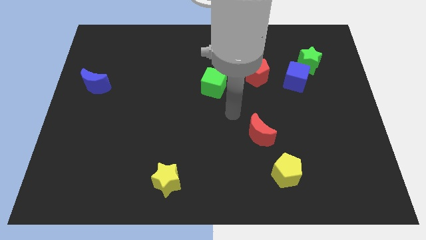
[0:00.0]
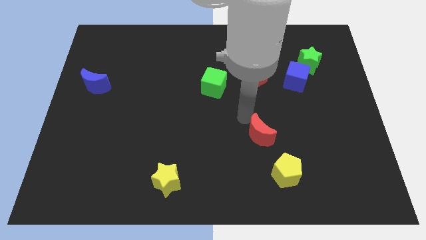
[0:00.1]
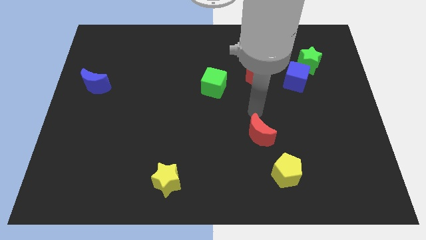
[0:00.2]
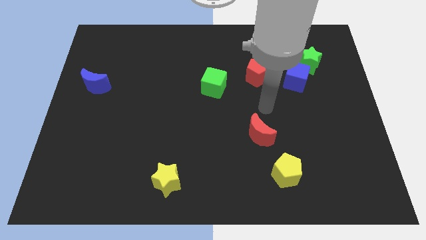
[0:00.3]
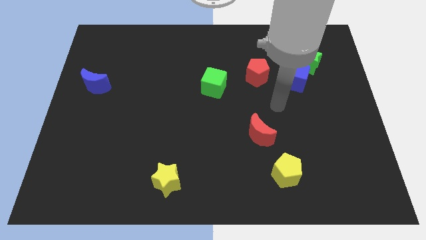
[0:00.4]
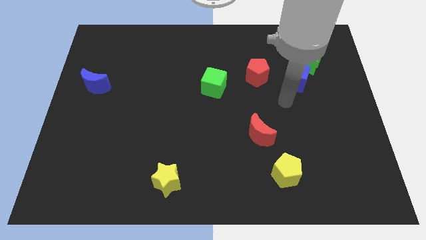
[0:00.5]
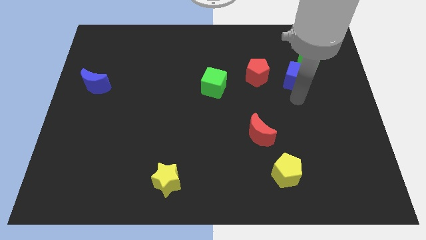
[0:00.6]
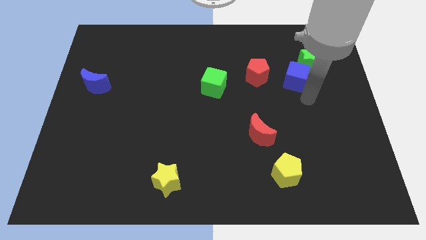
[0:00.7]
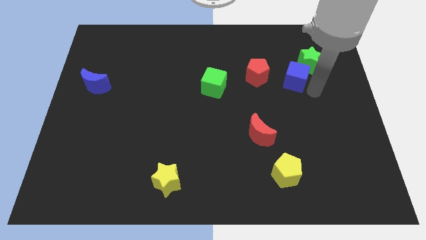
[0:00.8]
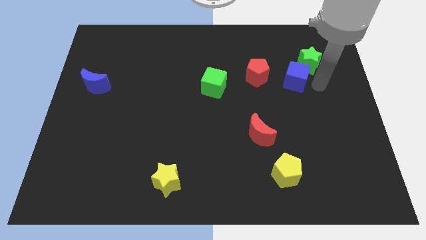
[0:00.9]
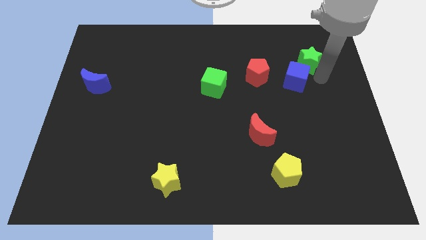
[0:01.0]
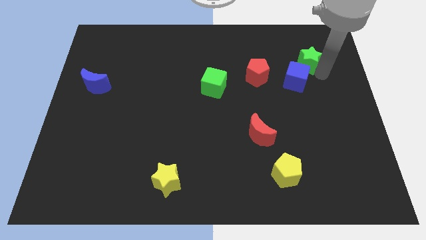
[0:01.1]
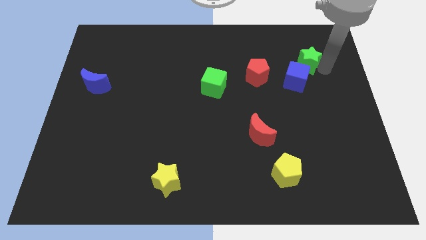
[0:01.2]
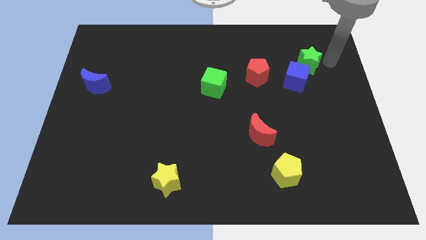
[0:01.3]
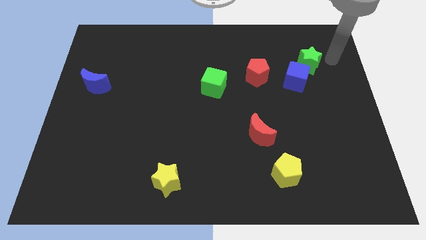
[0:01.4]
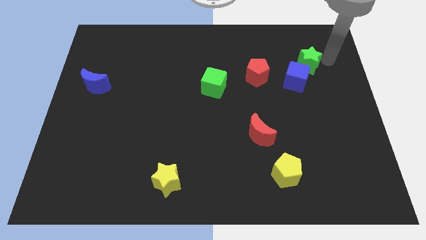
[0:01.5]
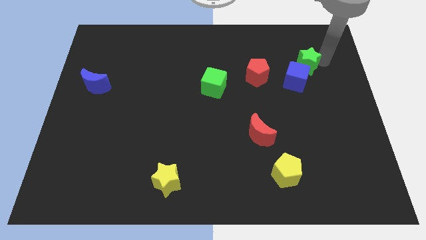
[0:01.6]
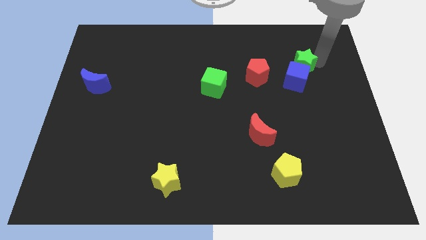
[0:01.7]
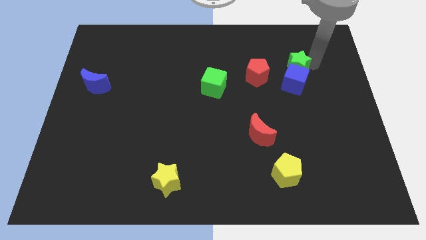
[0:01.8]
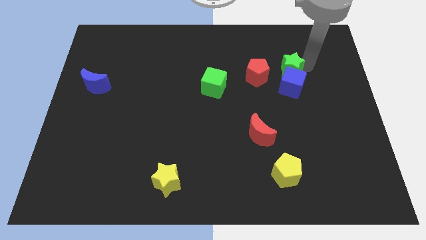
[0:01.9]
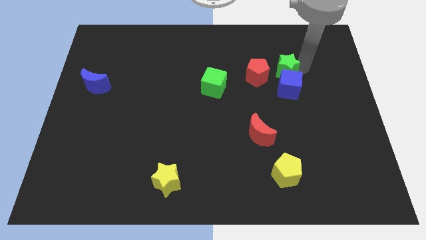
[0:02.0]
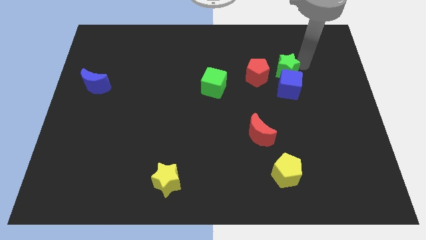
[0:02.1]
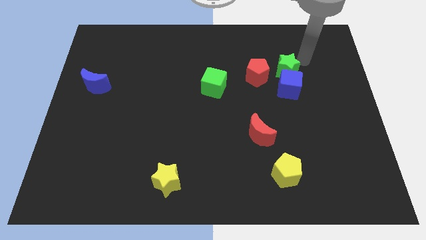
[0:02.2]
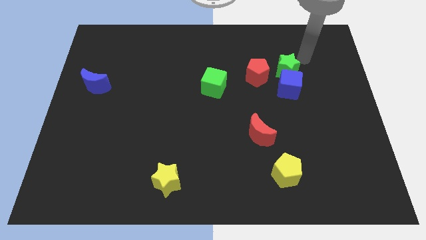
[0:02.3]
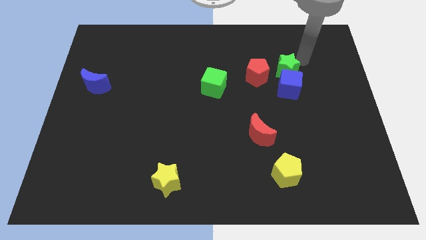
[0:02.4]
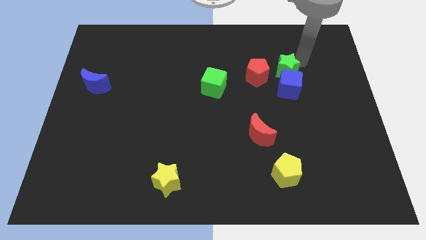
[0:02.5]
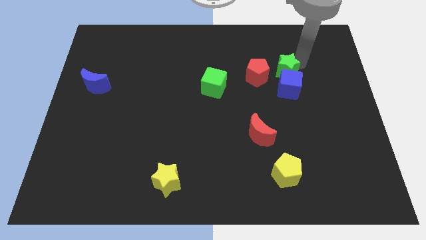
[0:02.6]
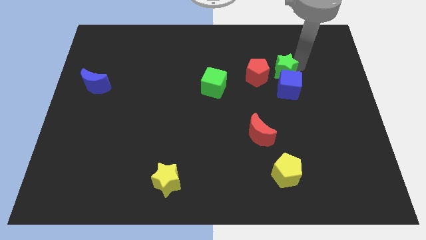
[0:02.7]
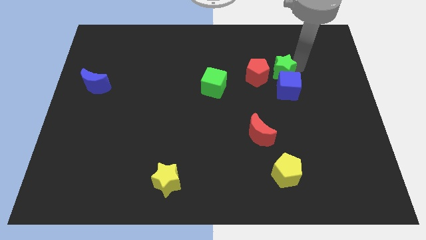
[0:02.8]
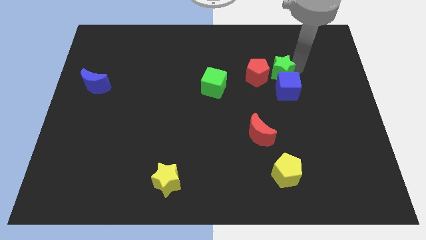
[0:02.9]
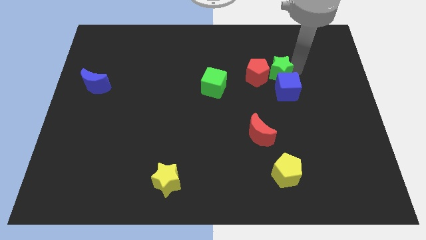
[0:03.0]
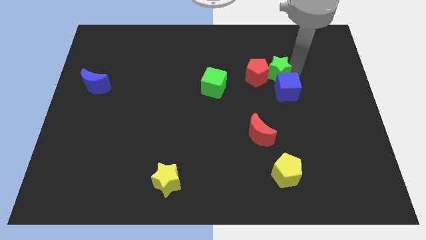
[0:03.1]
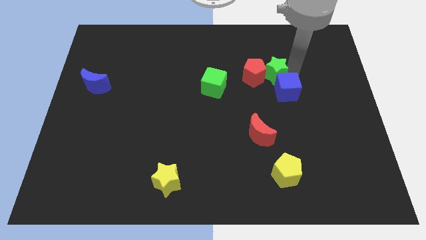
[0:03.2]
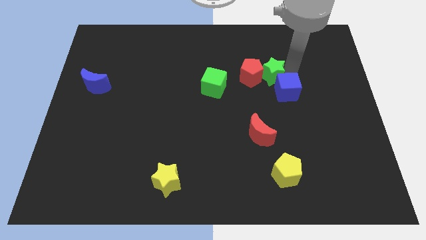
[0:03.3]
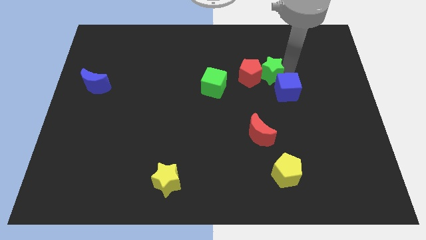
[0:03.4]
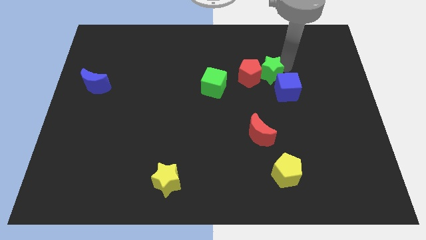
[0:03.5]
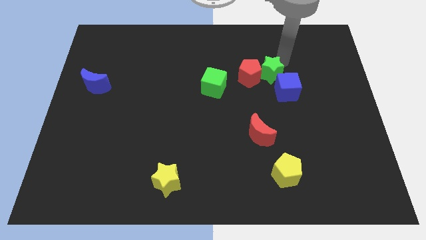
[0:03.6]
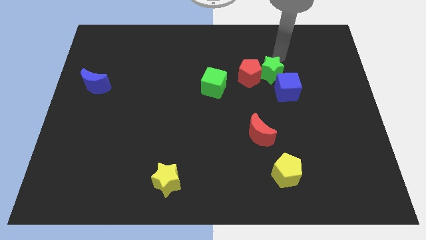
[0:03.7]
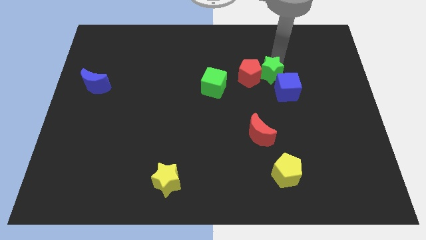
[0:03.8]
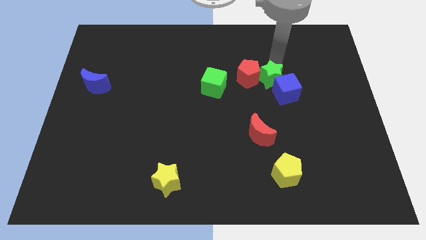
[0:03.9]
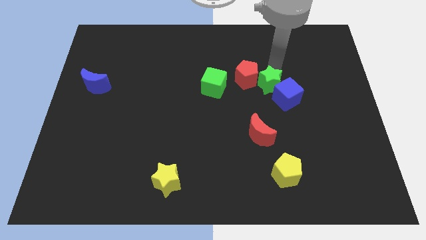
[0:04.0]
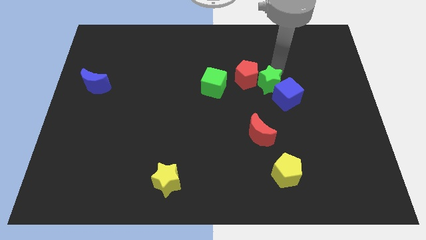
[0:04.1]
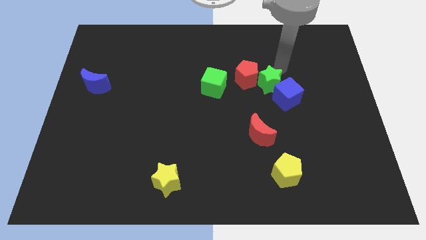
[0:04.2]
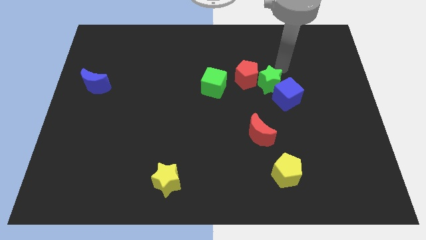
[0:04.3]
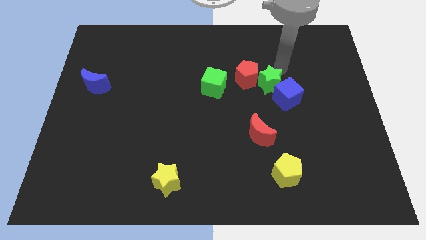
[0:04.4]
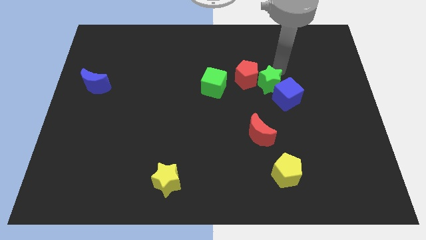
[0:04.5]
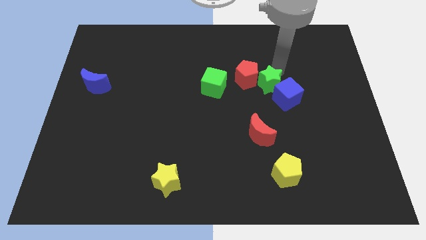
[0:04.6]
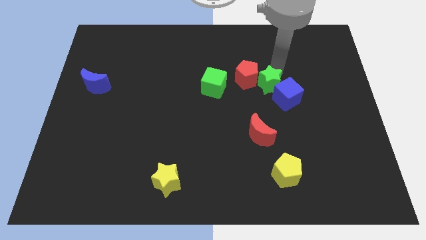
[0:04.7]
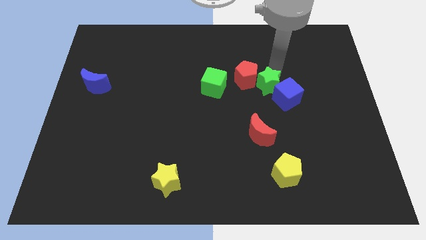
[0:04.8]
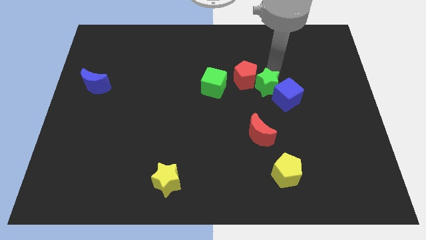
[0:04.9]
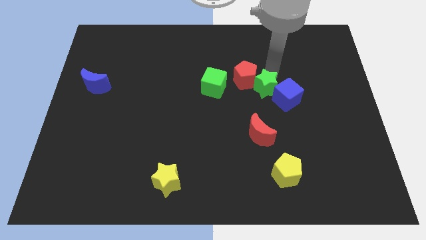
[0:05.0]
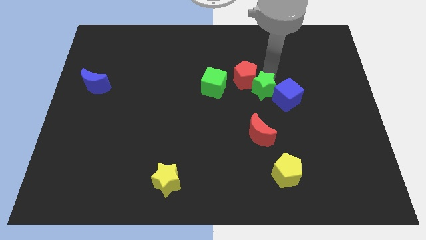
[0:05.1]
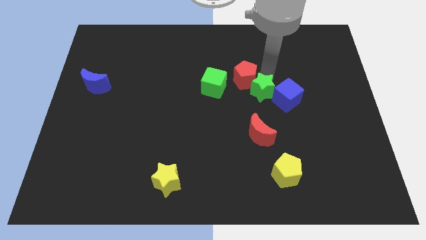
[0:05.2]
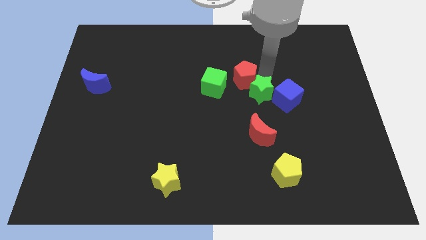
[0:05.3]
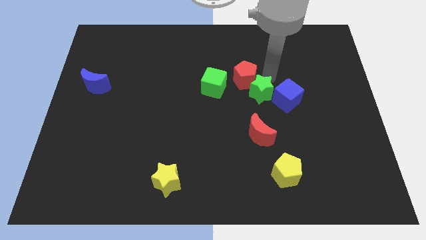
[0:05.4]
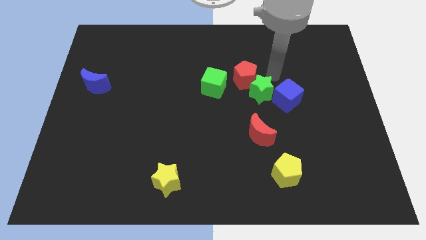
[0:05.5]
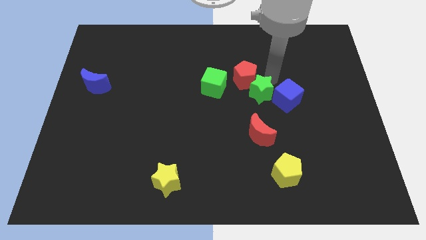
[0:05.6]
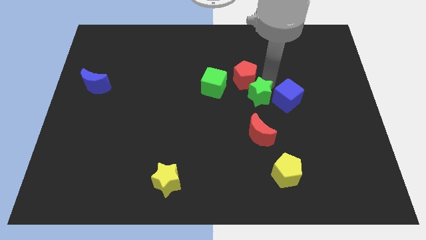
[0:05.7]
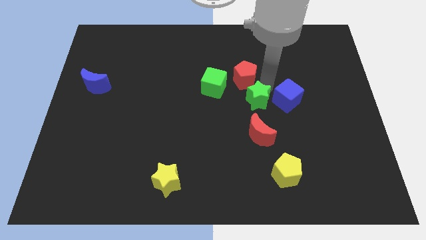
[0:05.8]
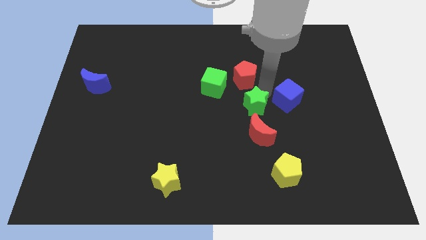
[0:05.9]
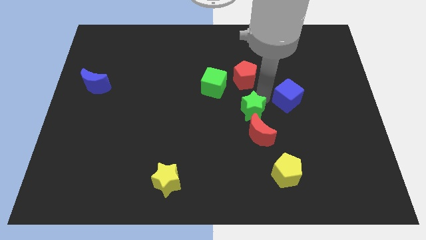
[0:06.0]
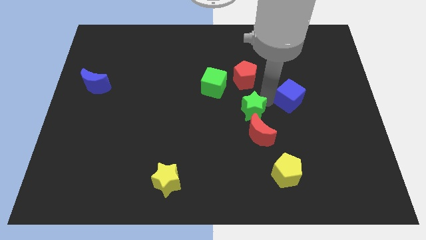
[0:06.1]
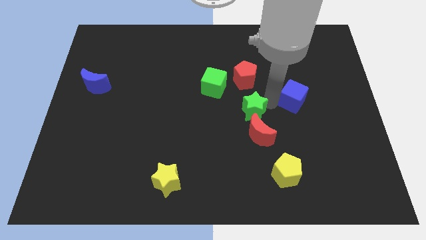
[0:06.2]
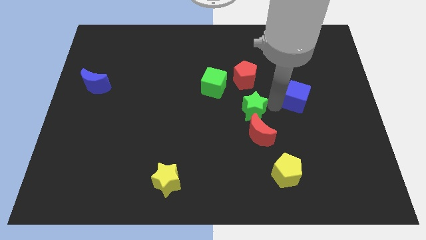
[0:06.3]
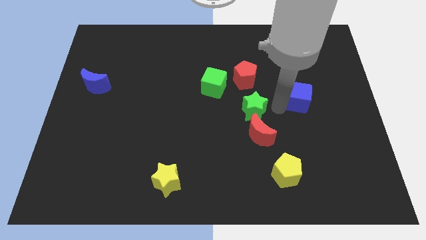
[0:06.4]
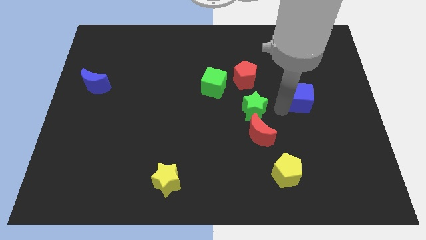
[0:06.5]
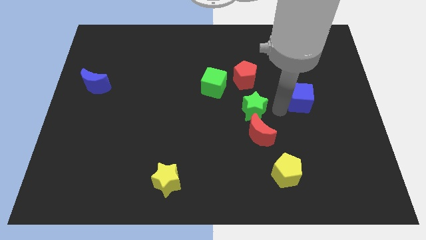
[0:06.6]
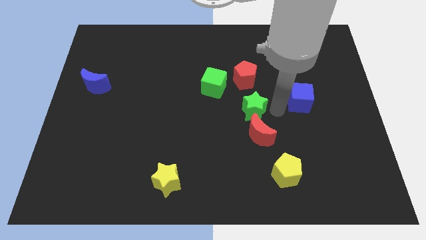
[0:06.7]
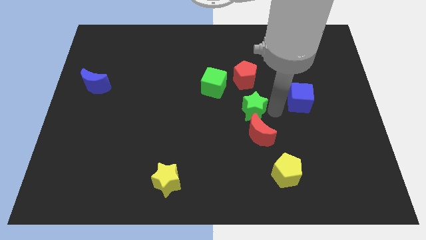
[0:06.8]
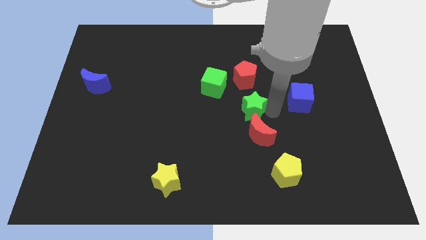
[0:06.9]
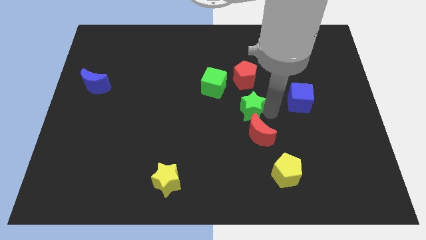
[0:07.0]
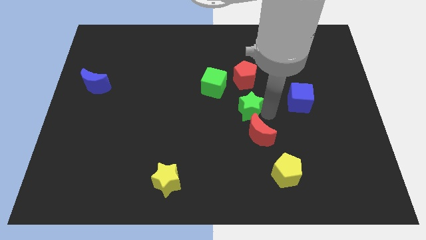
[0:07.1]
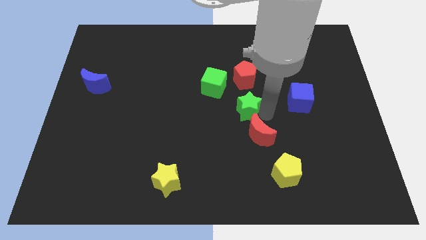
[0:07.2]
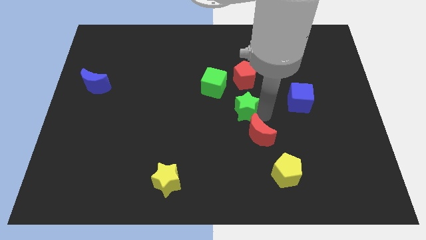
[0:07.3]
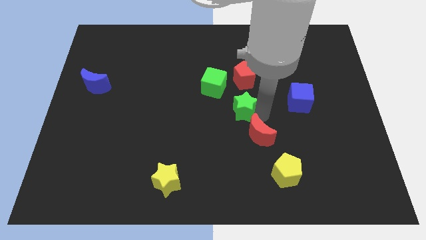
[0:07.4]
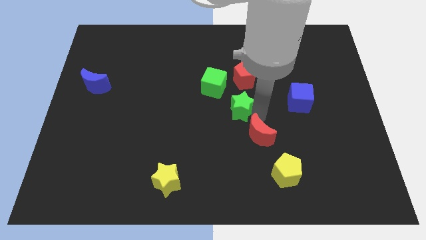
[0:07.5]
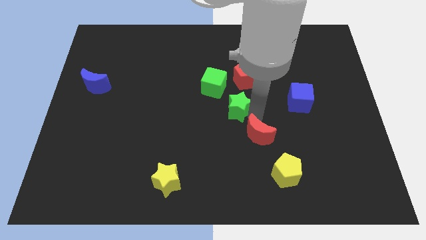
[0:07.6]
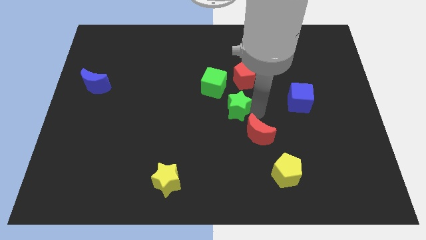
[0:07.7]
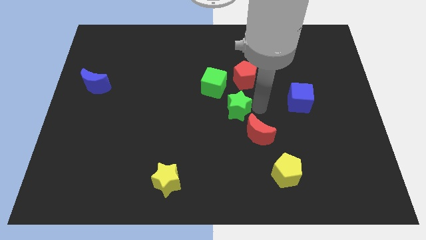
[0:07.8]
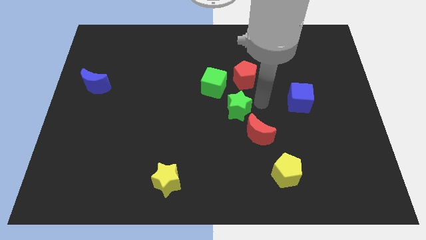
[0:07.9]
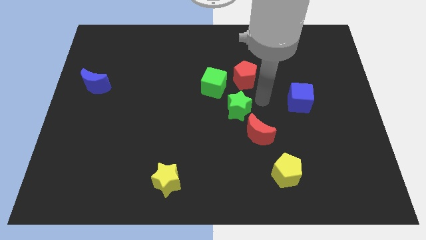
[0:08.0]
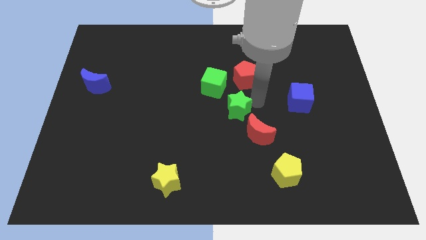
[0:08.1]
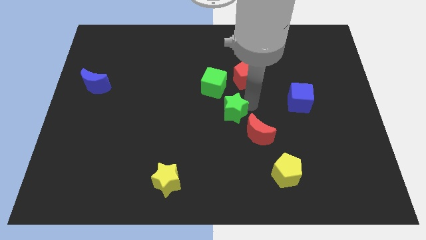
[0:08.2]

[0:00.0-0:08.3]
slide the green star to the bottom of the green cube
